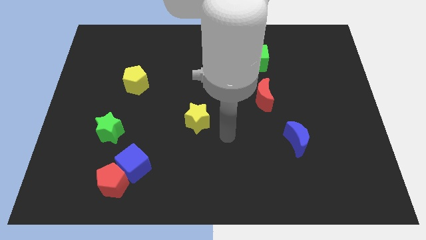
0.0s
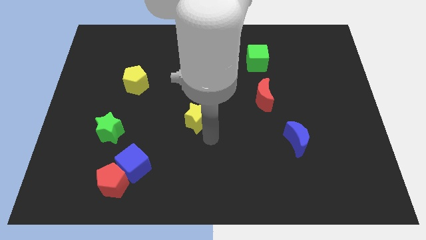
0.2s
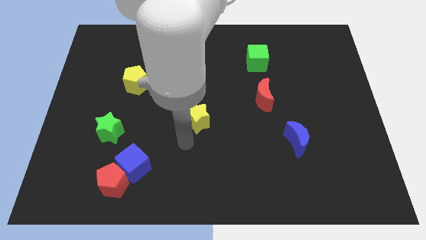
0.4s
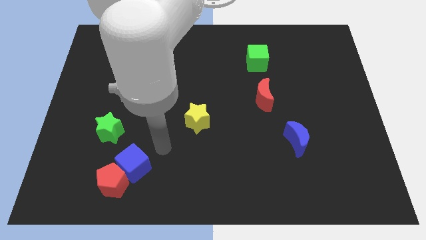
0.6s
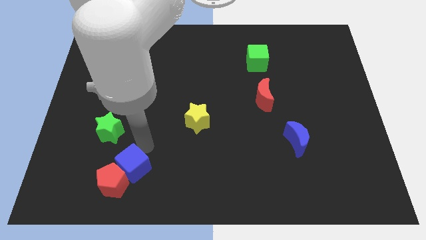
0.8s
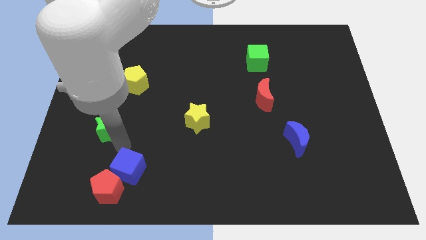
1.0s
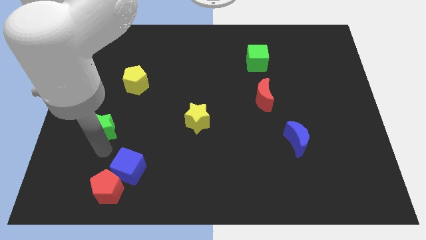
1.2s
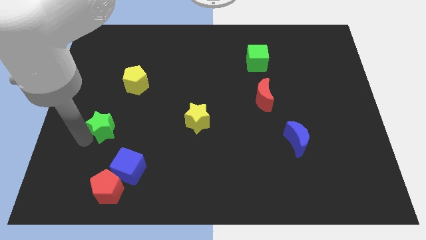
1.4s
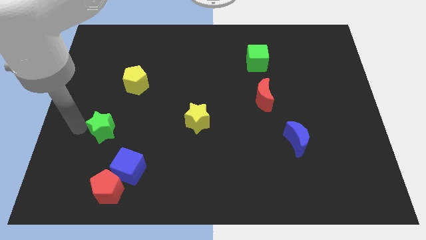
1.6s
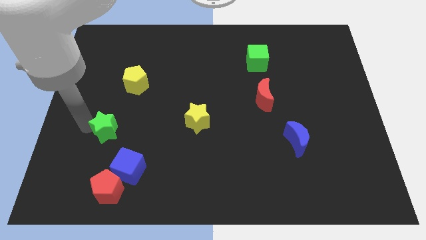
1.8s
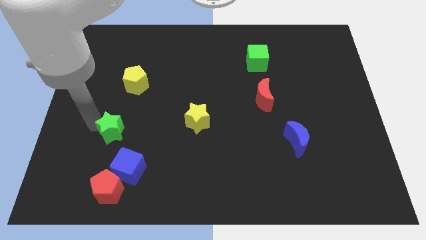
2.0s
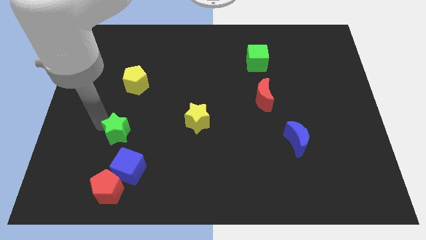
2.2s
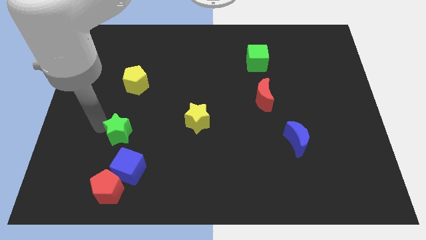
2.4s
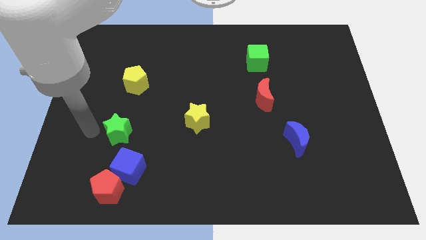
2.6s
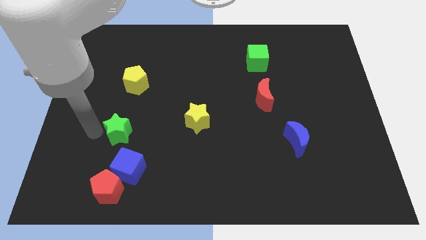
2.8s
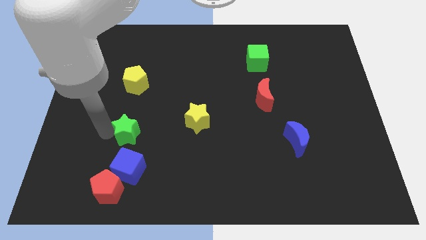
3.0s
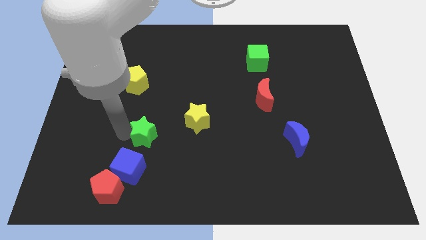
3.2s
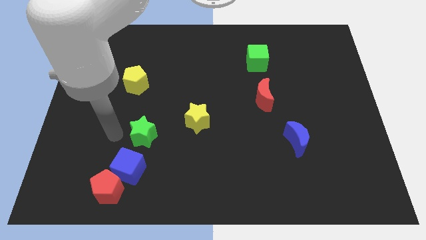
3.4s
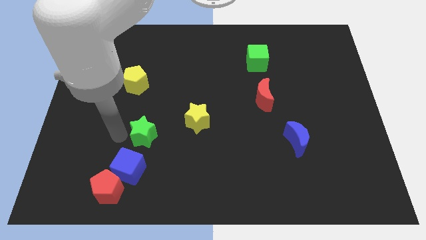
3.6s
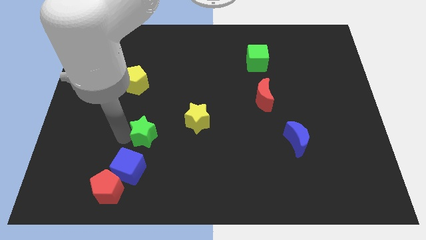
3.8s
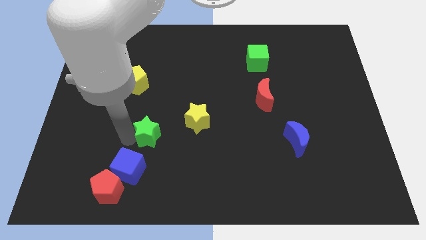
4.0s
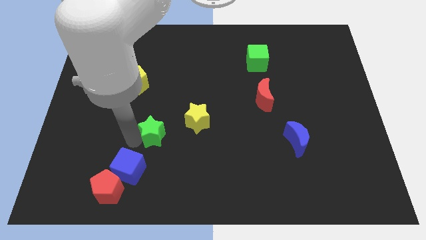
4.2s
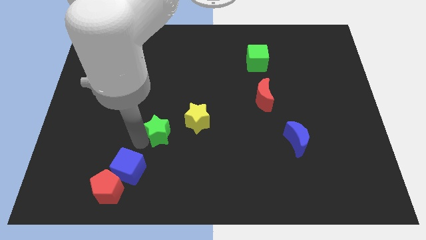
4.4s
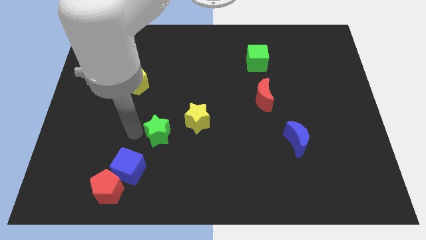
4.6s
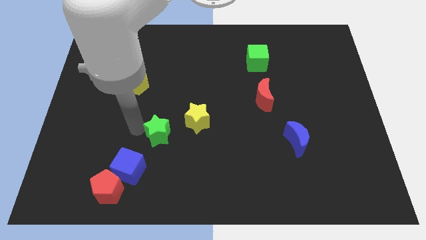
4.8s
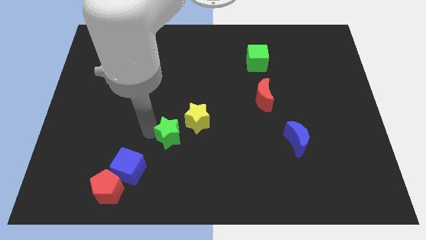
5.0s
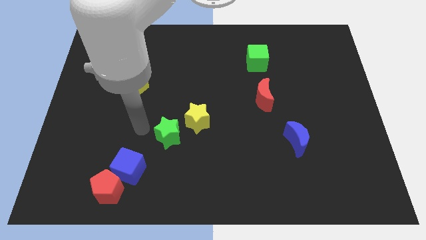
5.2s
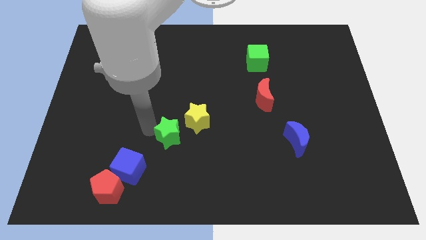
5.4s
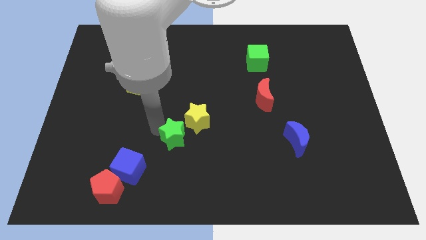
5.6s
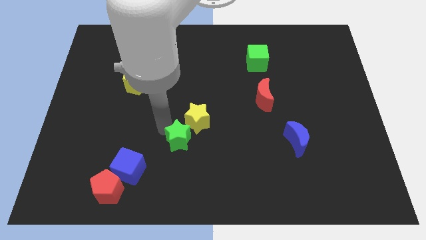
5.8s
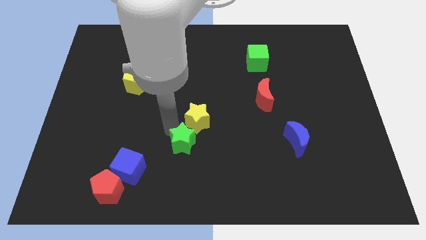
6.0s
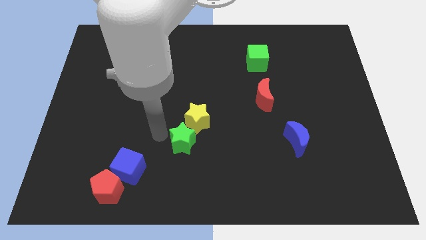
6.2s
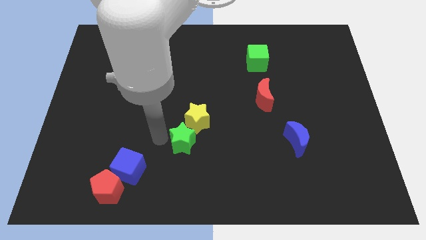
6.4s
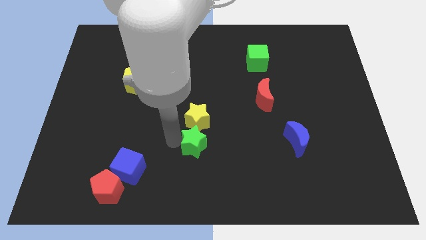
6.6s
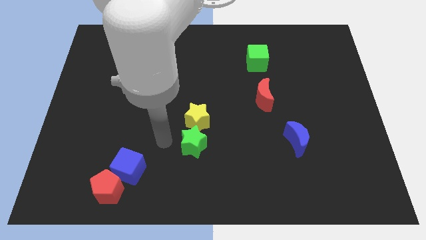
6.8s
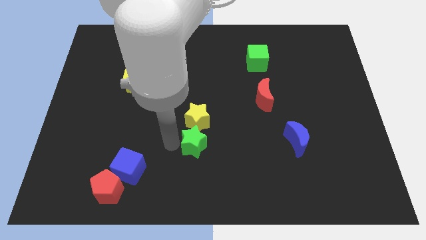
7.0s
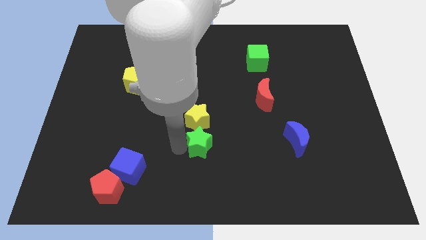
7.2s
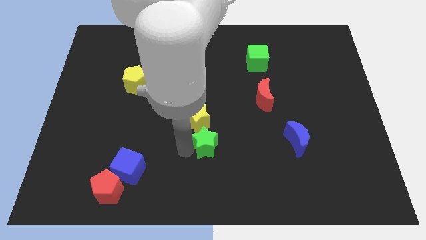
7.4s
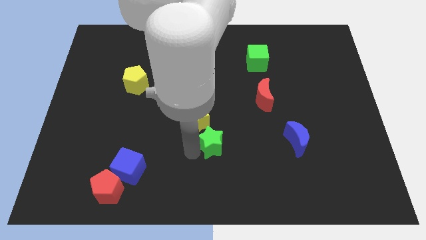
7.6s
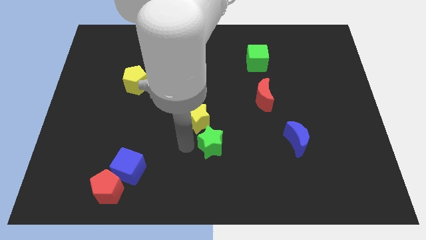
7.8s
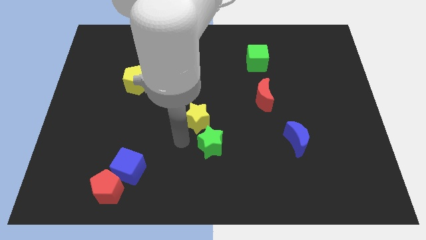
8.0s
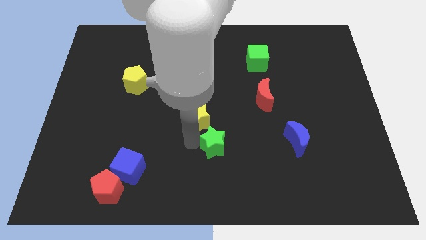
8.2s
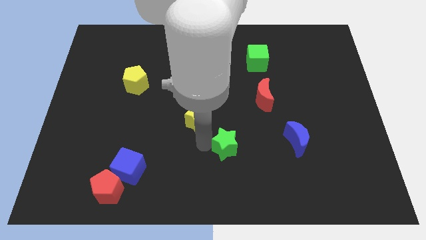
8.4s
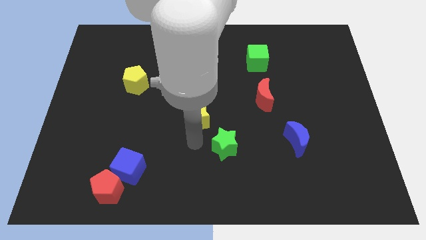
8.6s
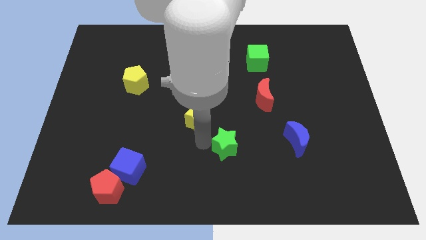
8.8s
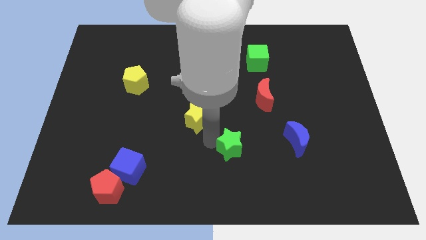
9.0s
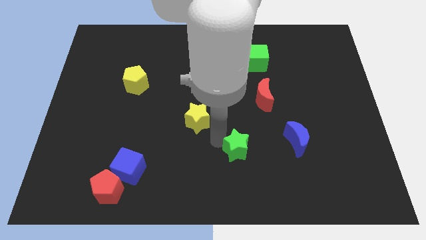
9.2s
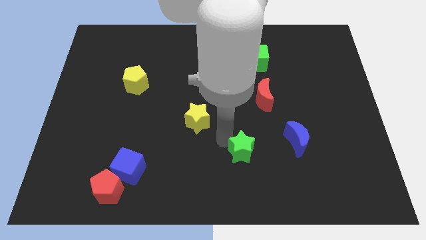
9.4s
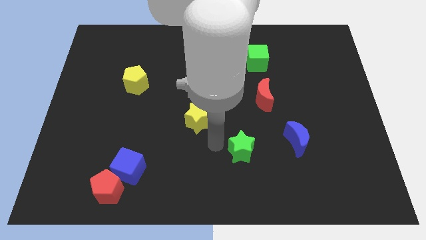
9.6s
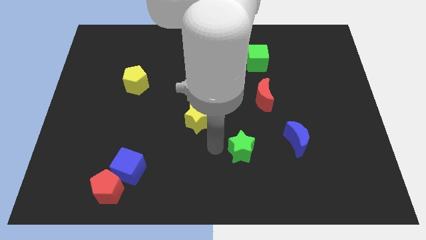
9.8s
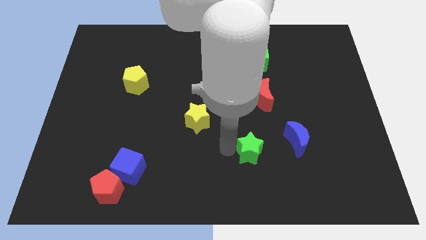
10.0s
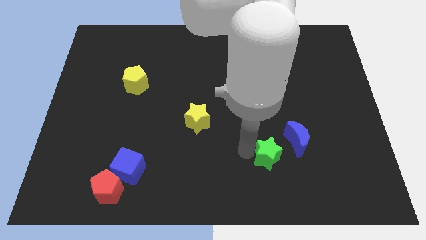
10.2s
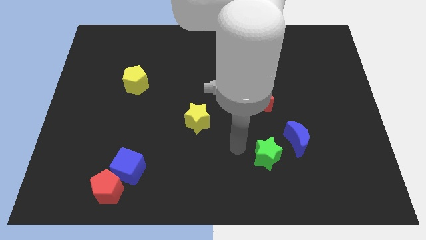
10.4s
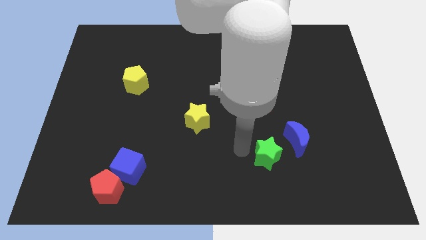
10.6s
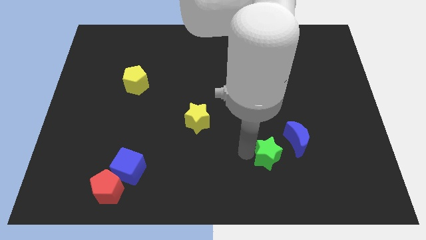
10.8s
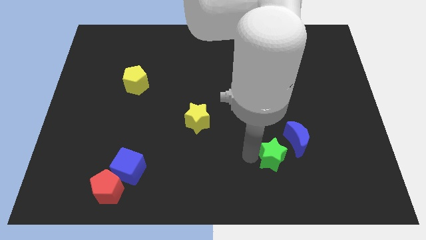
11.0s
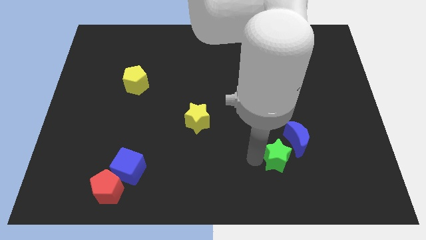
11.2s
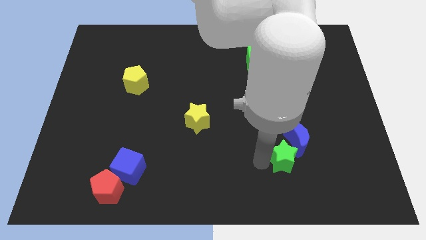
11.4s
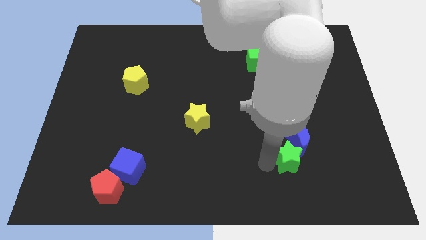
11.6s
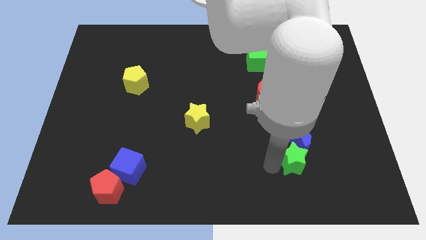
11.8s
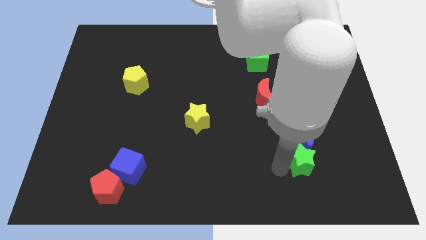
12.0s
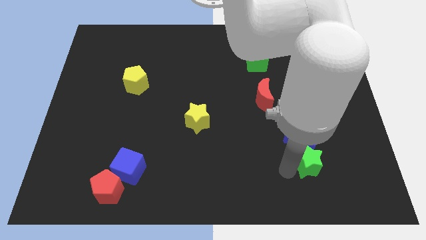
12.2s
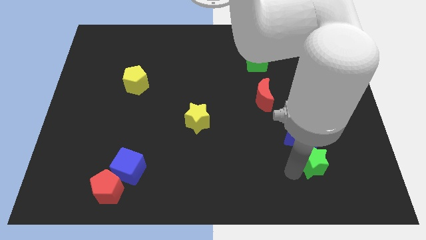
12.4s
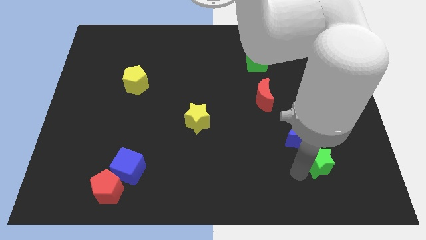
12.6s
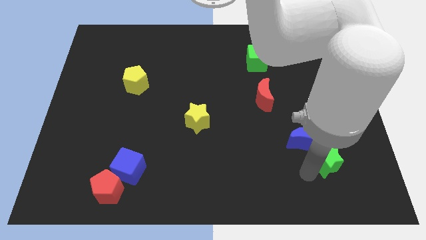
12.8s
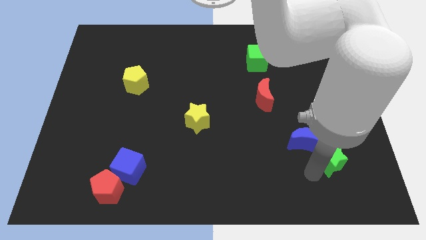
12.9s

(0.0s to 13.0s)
move the green star to the right side of the blue moon
